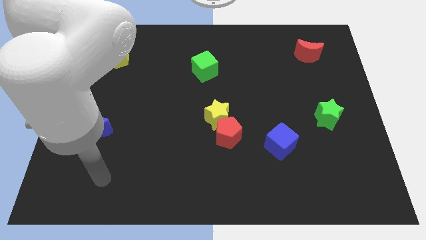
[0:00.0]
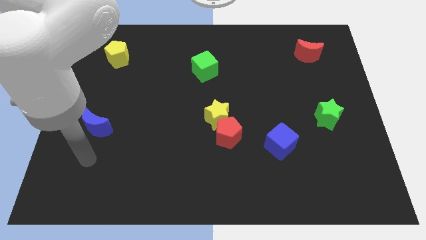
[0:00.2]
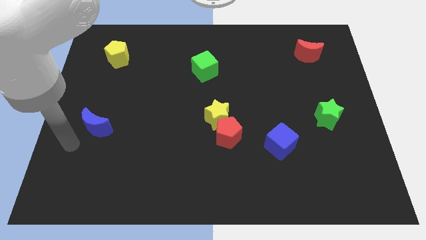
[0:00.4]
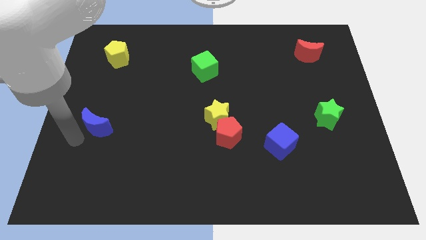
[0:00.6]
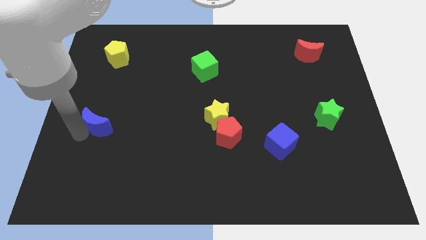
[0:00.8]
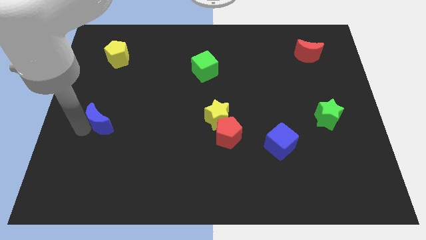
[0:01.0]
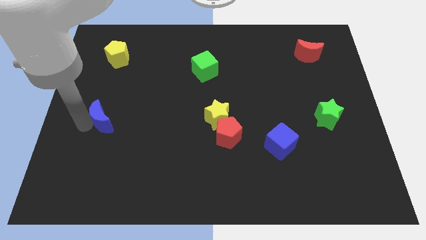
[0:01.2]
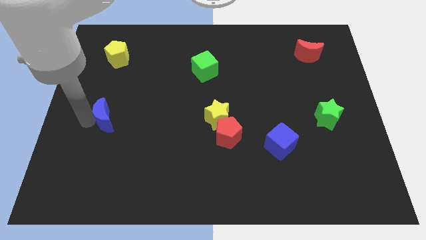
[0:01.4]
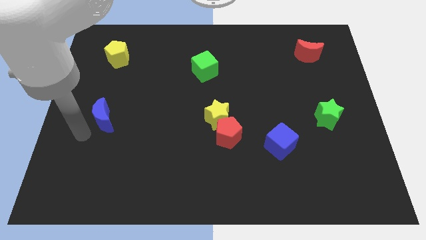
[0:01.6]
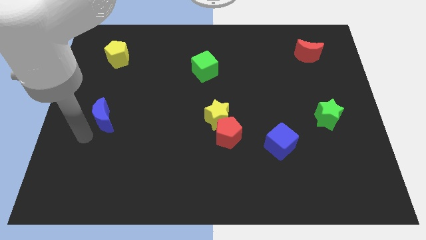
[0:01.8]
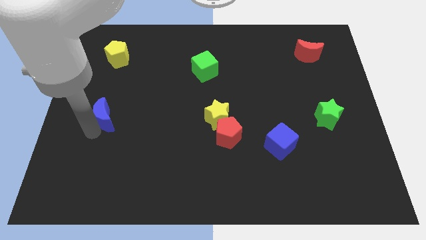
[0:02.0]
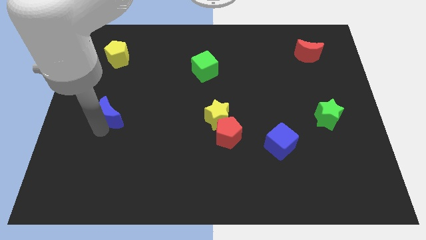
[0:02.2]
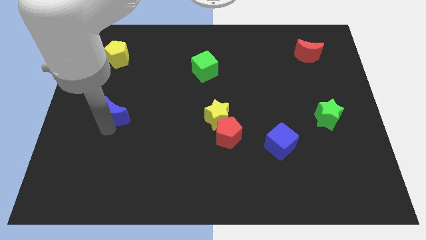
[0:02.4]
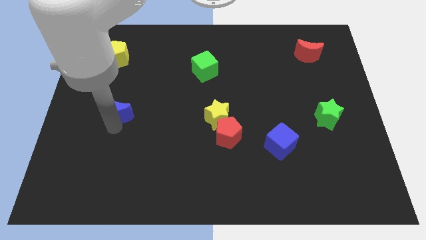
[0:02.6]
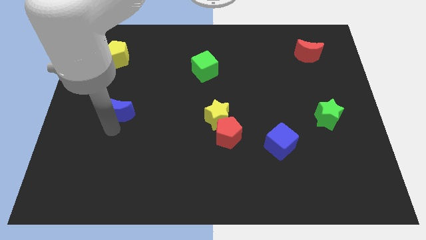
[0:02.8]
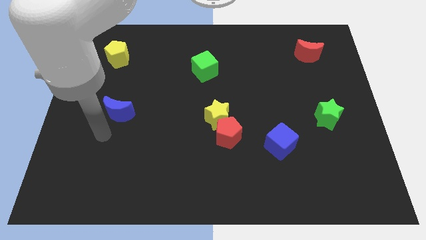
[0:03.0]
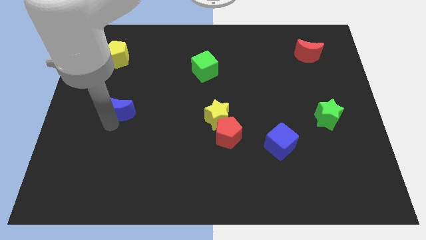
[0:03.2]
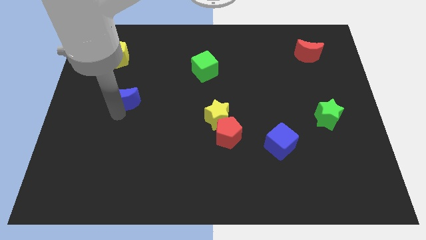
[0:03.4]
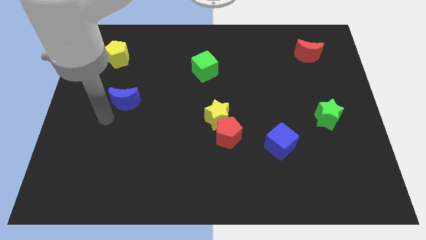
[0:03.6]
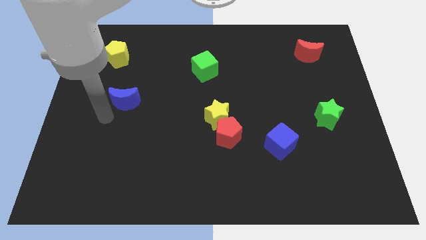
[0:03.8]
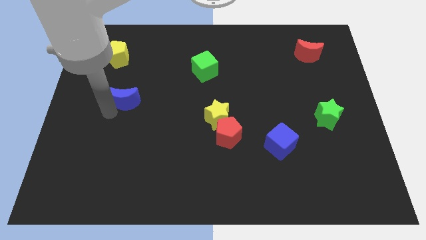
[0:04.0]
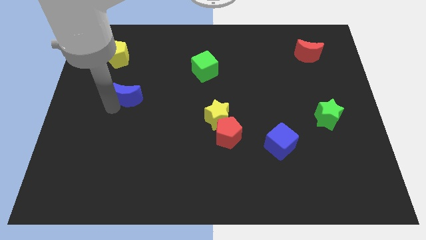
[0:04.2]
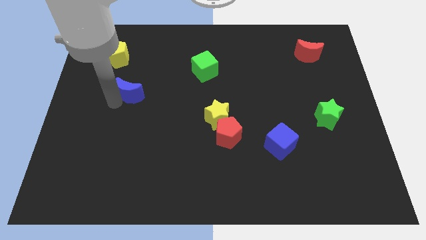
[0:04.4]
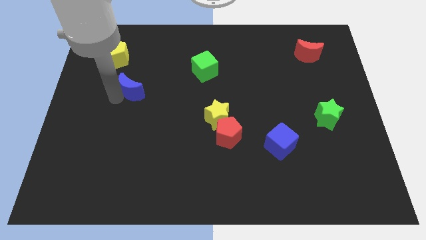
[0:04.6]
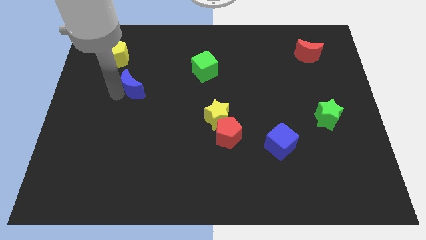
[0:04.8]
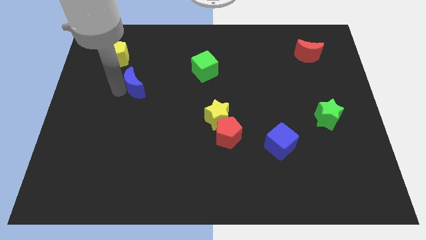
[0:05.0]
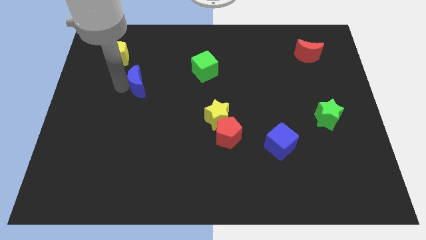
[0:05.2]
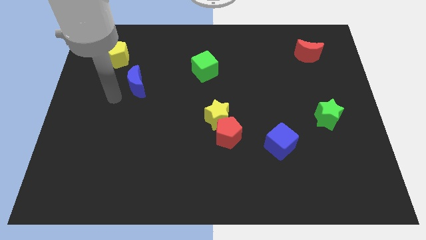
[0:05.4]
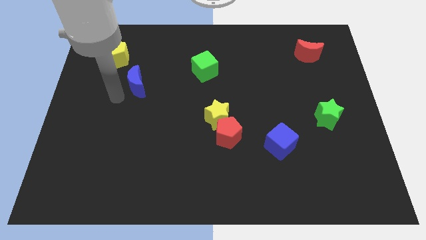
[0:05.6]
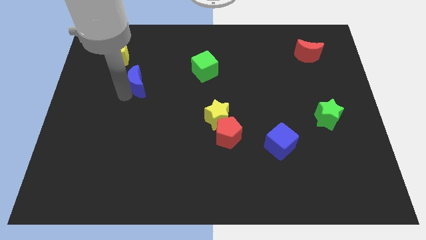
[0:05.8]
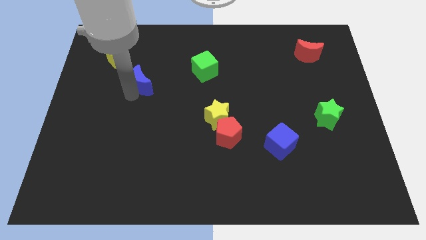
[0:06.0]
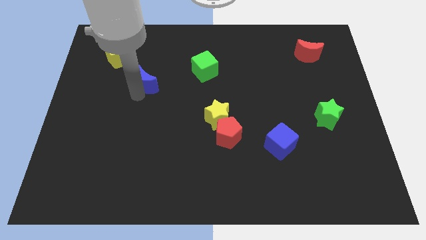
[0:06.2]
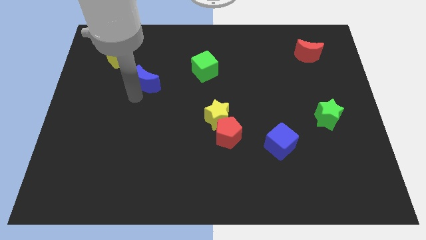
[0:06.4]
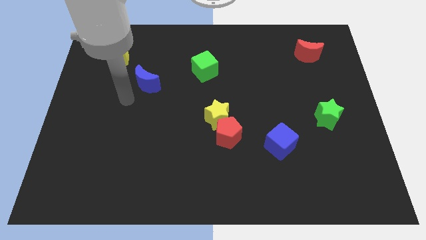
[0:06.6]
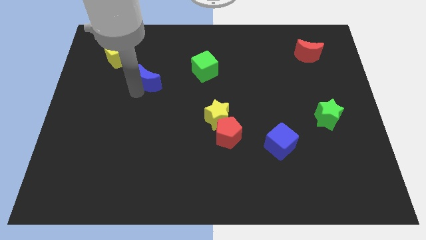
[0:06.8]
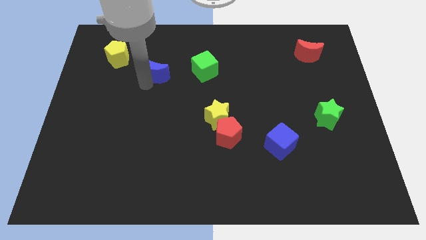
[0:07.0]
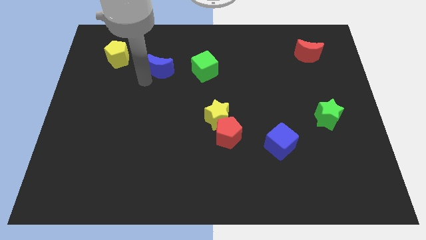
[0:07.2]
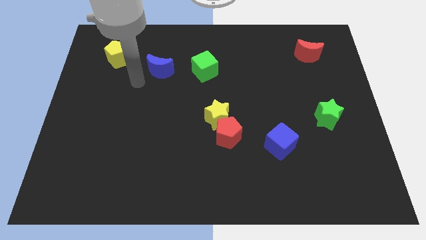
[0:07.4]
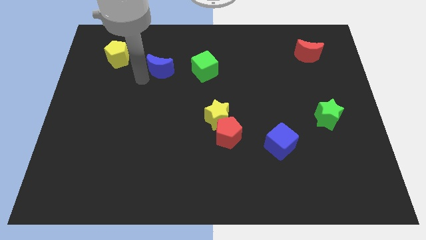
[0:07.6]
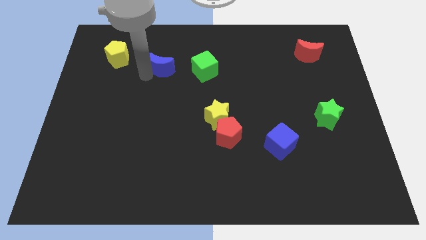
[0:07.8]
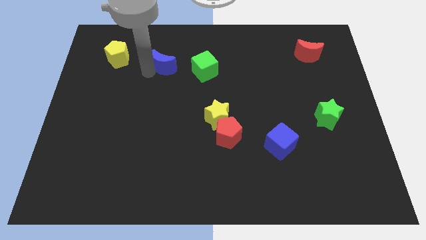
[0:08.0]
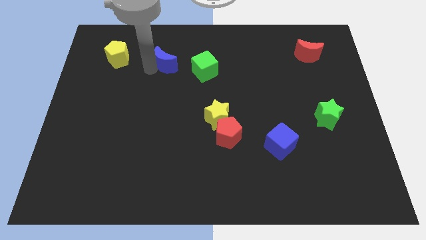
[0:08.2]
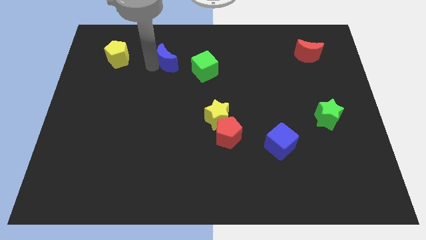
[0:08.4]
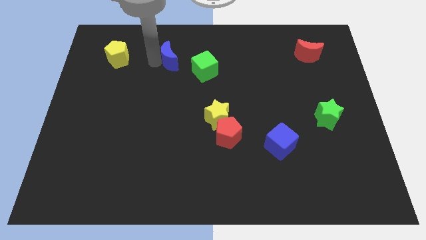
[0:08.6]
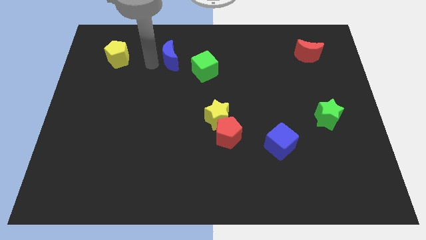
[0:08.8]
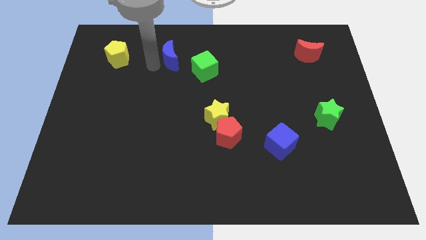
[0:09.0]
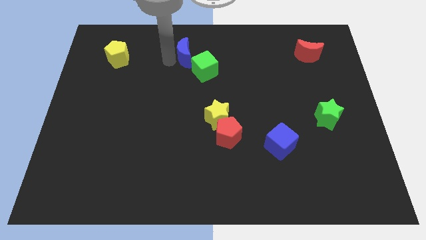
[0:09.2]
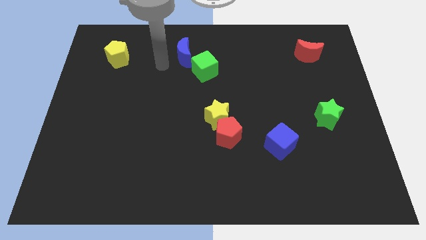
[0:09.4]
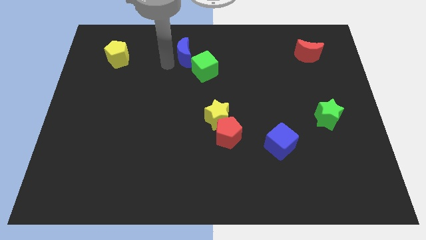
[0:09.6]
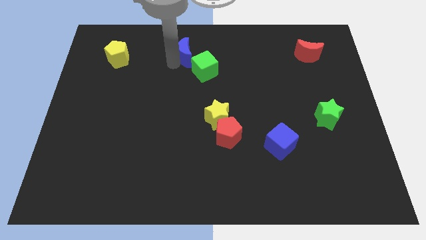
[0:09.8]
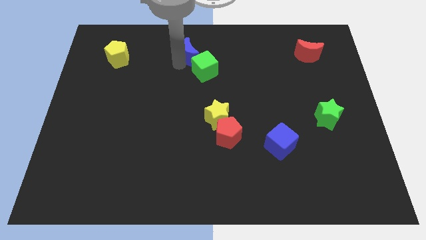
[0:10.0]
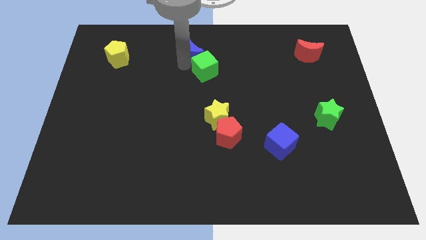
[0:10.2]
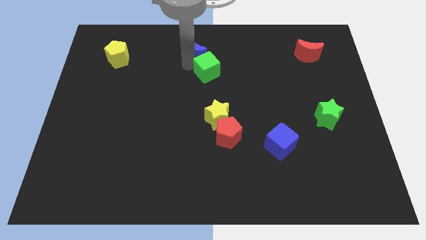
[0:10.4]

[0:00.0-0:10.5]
move the blue moon to the top

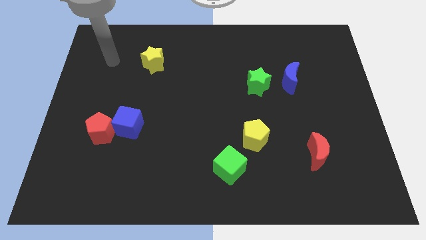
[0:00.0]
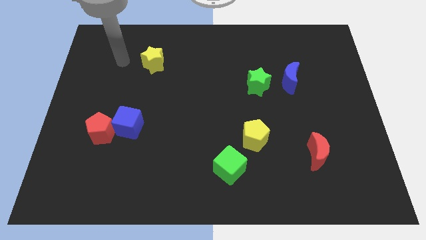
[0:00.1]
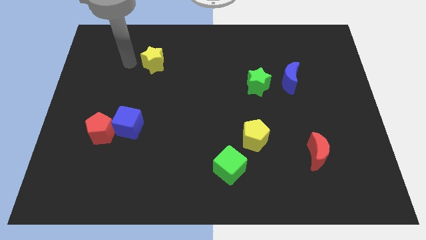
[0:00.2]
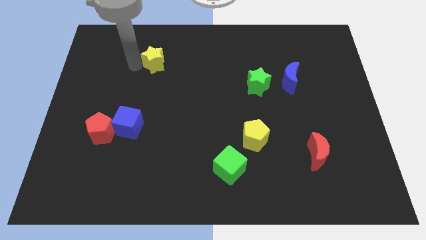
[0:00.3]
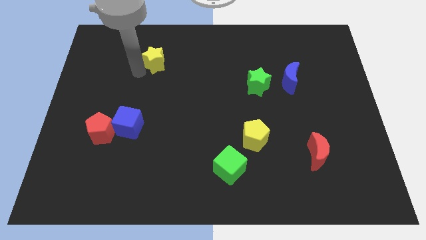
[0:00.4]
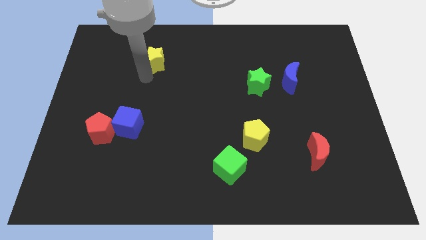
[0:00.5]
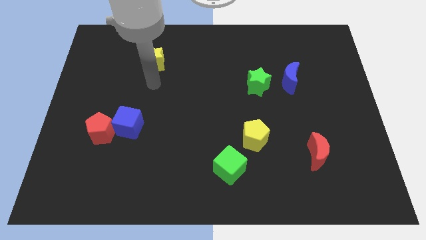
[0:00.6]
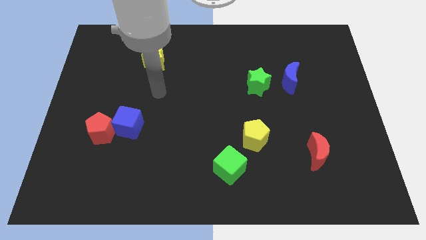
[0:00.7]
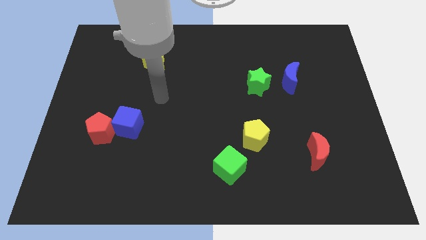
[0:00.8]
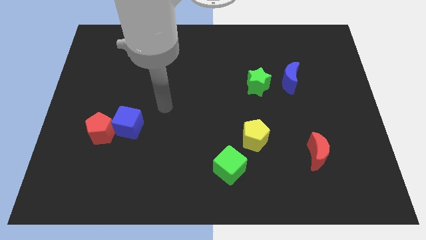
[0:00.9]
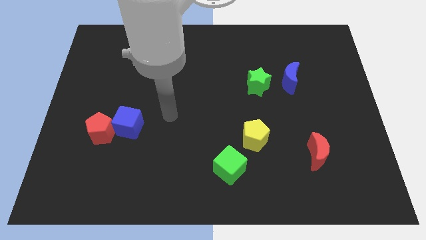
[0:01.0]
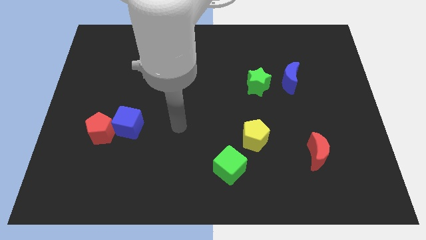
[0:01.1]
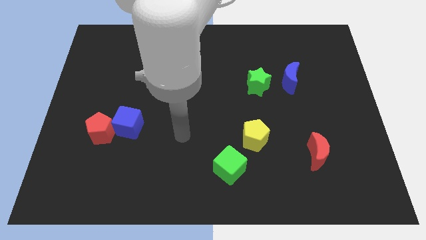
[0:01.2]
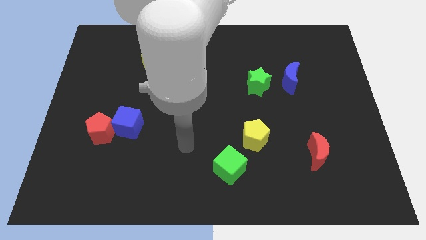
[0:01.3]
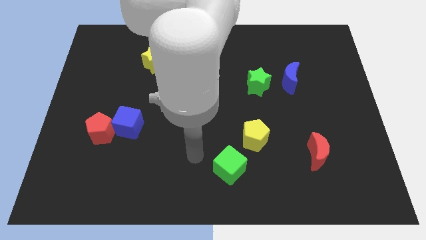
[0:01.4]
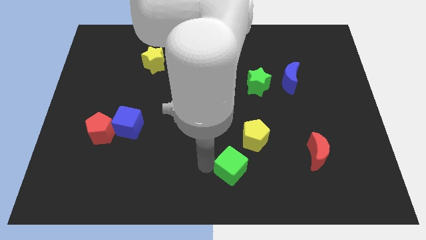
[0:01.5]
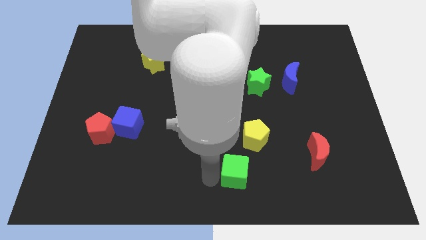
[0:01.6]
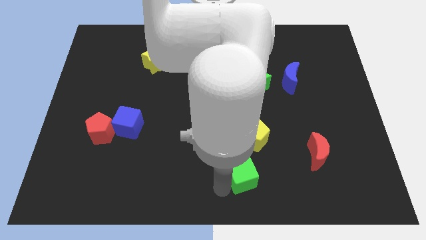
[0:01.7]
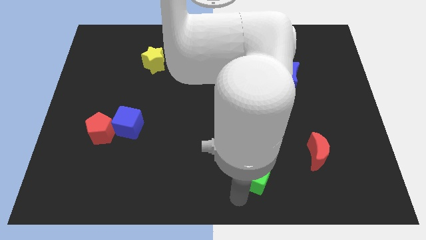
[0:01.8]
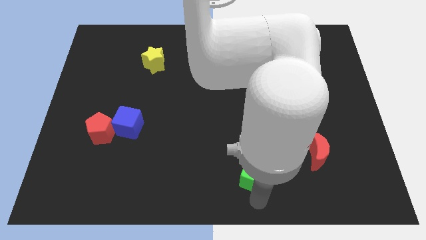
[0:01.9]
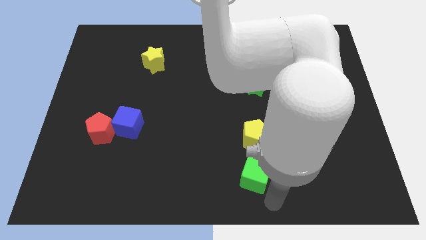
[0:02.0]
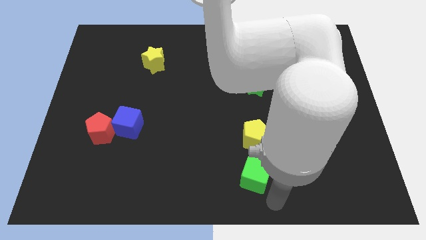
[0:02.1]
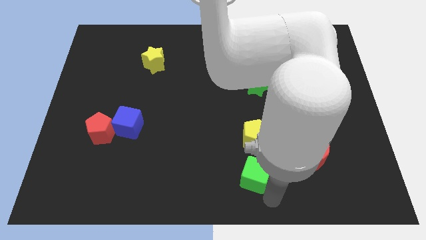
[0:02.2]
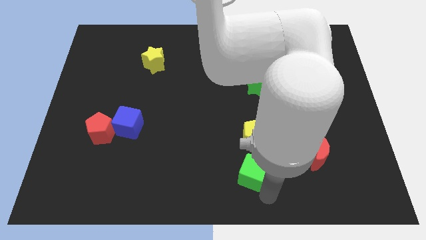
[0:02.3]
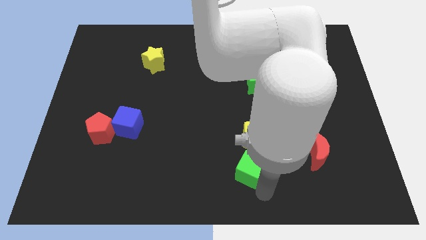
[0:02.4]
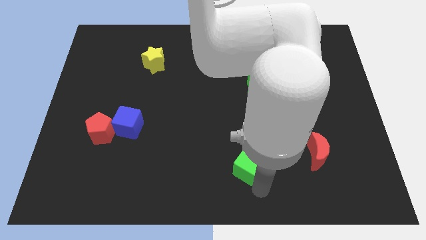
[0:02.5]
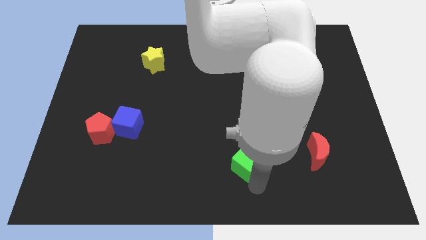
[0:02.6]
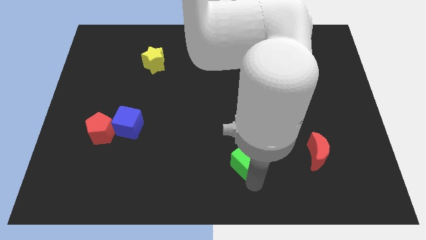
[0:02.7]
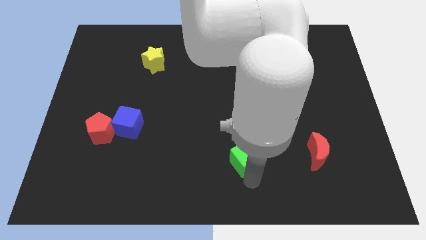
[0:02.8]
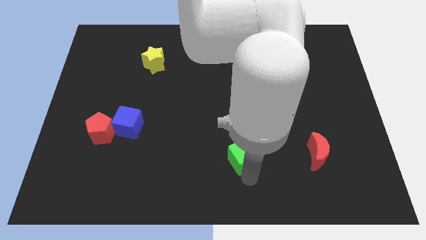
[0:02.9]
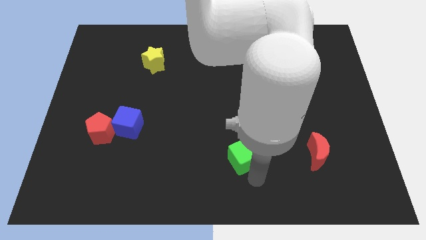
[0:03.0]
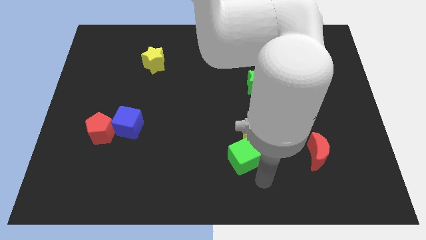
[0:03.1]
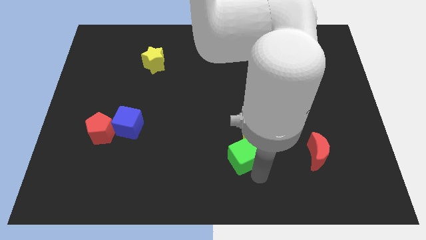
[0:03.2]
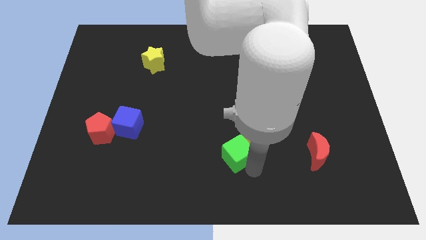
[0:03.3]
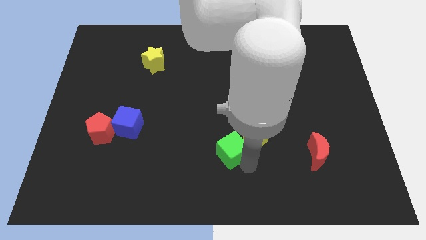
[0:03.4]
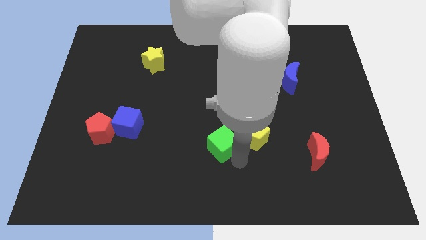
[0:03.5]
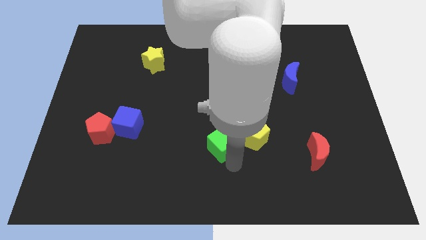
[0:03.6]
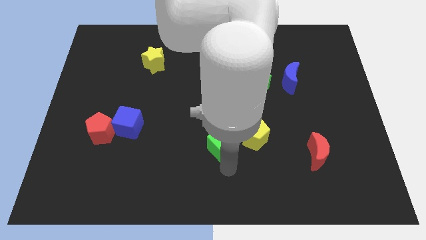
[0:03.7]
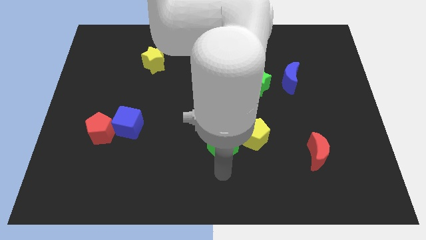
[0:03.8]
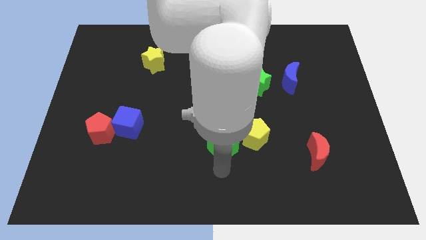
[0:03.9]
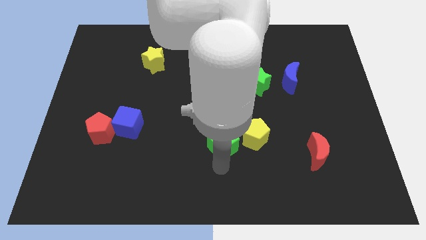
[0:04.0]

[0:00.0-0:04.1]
slide the green cube to the middle of the board
